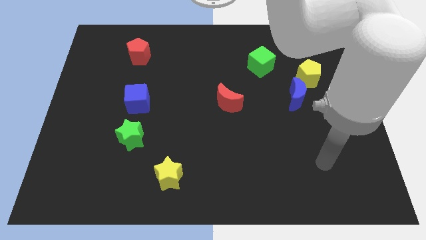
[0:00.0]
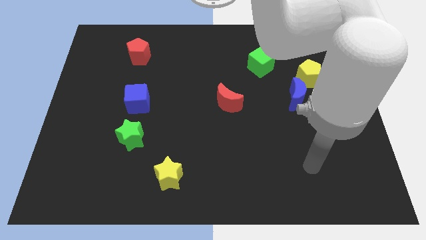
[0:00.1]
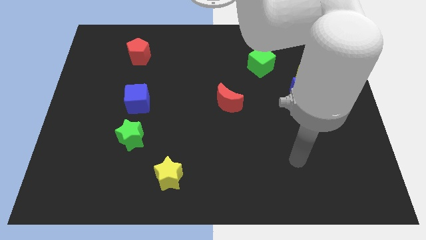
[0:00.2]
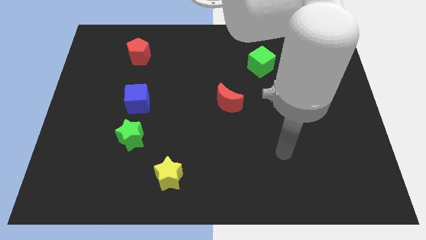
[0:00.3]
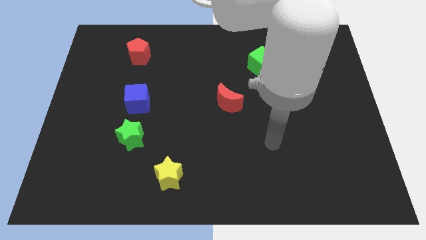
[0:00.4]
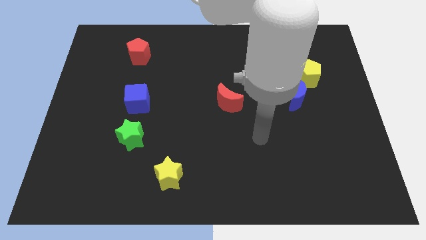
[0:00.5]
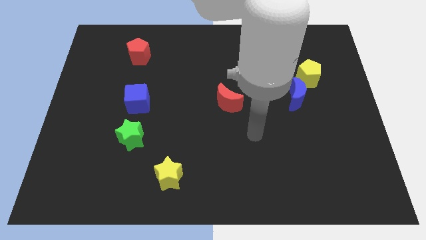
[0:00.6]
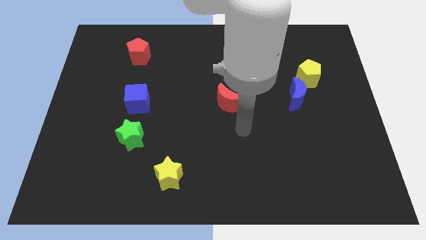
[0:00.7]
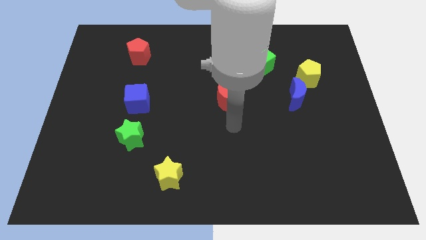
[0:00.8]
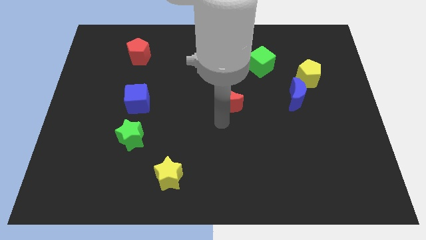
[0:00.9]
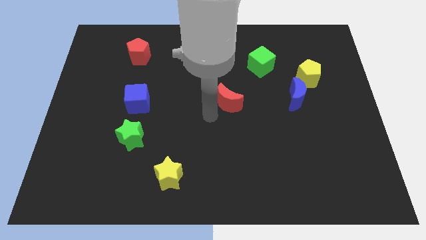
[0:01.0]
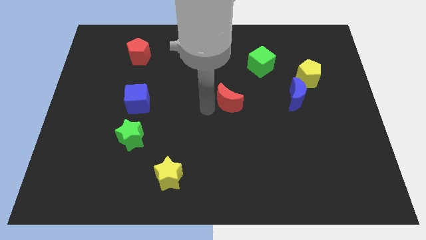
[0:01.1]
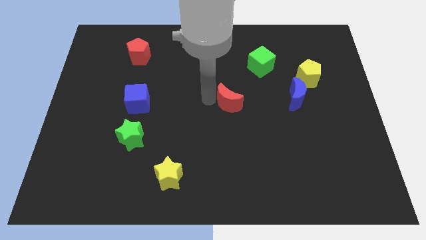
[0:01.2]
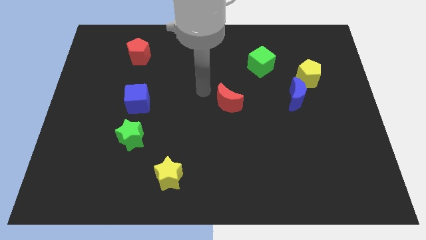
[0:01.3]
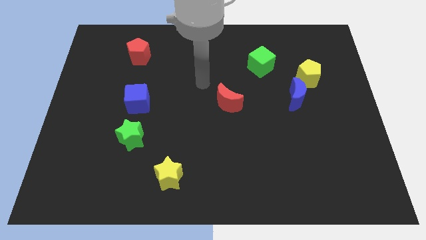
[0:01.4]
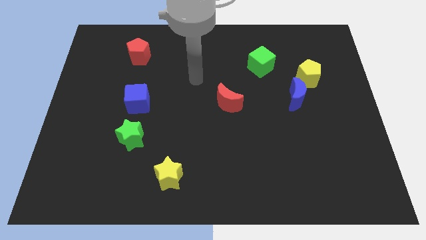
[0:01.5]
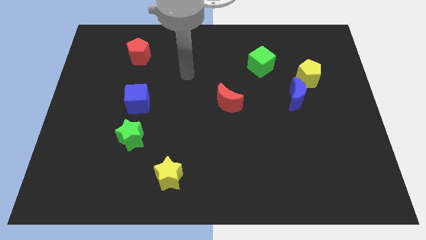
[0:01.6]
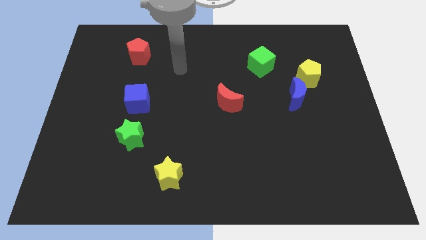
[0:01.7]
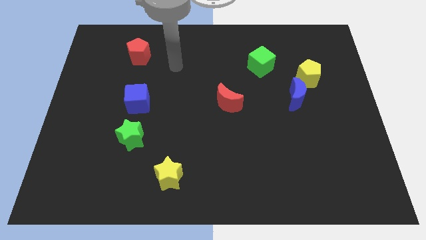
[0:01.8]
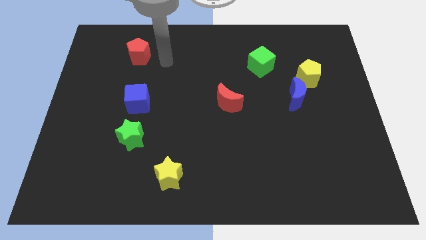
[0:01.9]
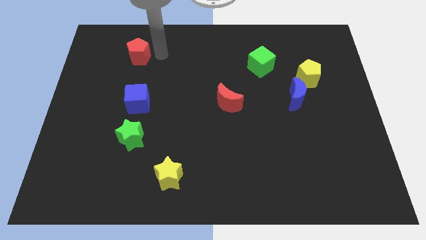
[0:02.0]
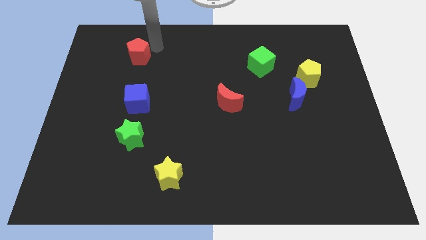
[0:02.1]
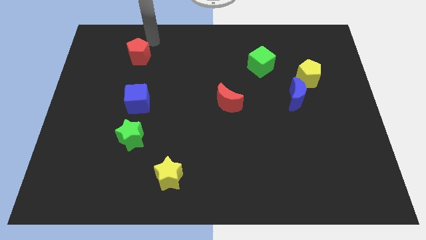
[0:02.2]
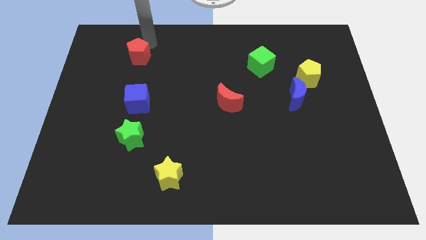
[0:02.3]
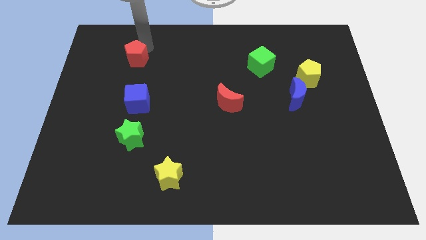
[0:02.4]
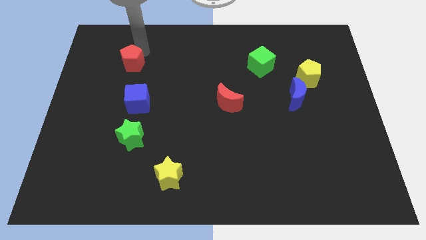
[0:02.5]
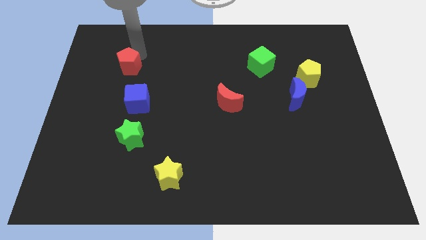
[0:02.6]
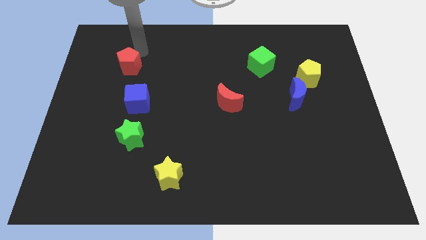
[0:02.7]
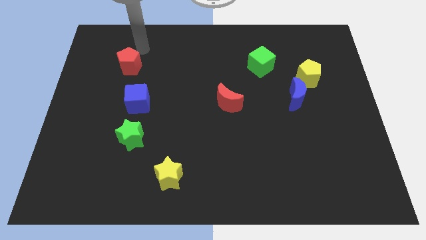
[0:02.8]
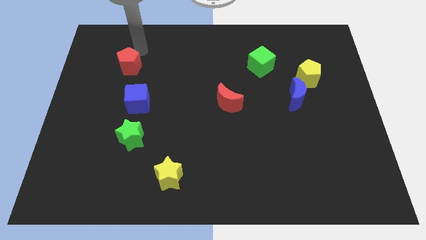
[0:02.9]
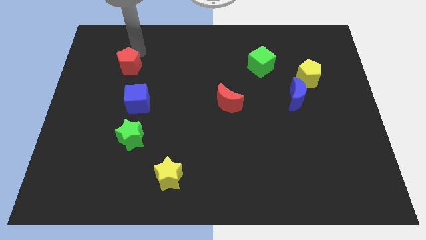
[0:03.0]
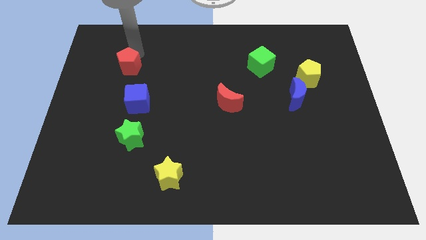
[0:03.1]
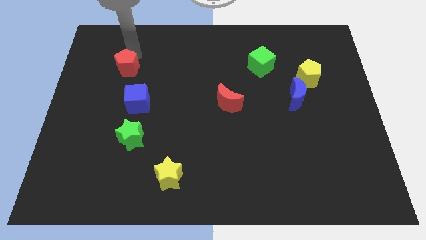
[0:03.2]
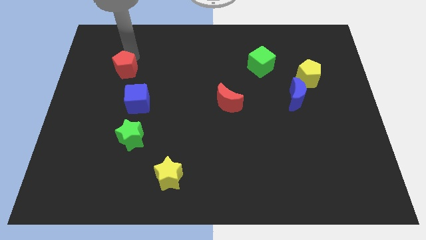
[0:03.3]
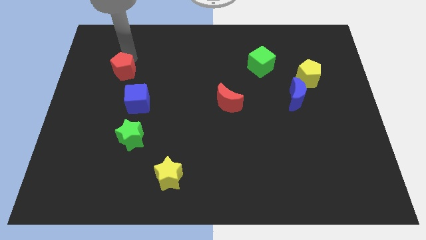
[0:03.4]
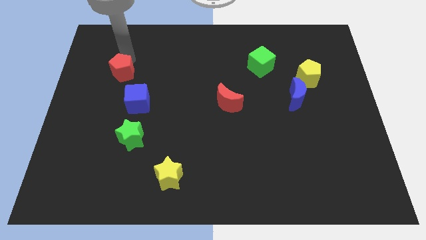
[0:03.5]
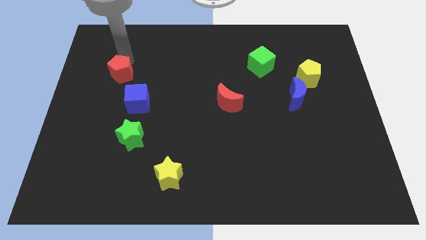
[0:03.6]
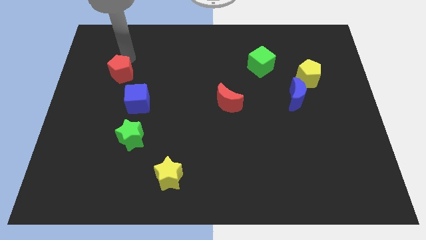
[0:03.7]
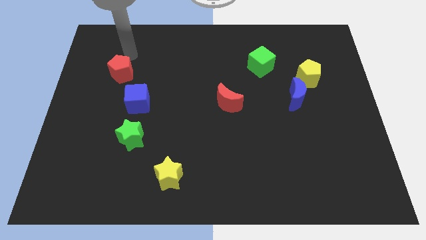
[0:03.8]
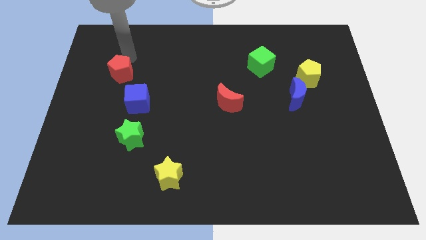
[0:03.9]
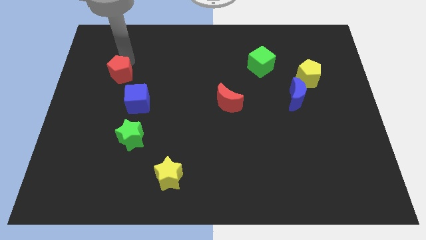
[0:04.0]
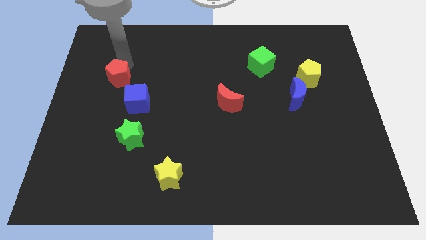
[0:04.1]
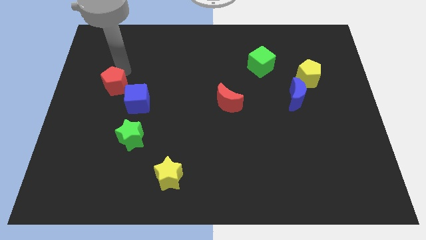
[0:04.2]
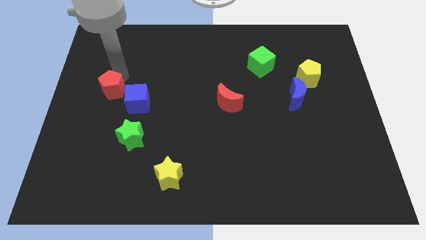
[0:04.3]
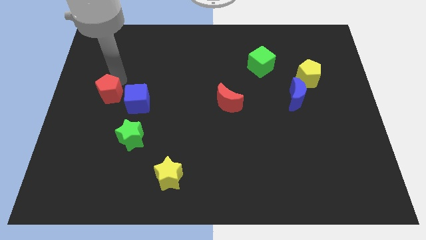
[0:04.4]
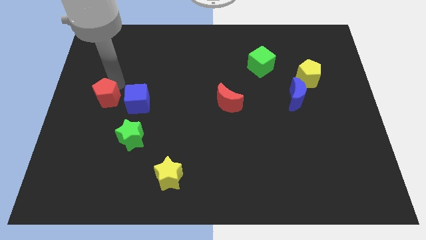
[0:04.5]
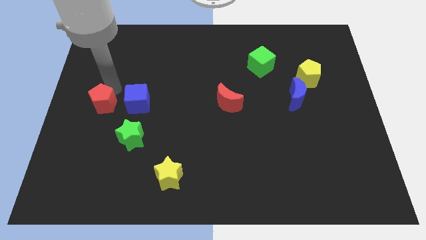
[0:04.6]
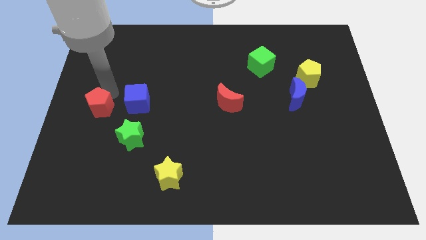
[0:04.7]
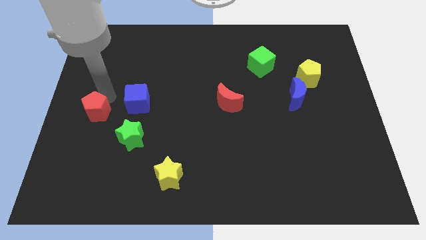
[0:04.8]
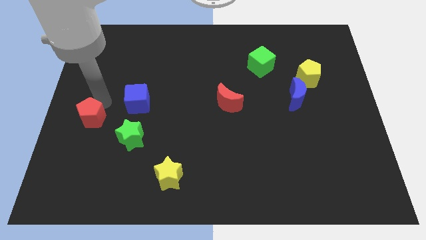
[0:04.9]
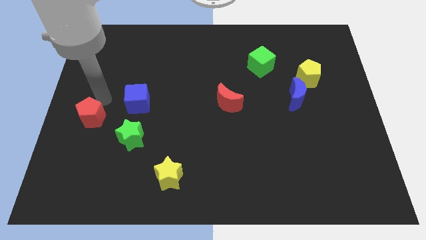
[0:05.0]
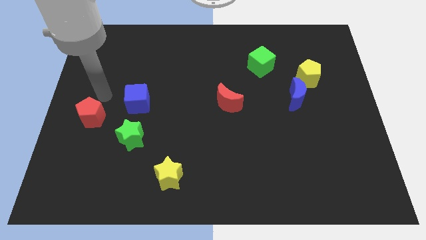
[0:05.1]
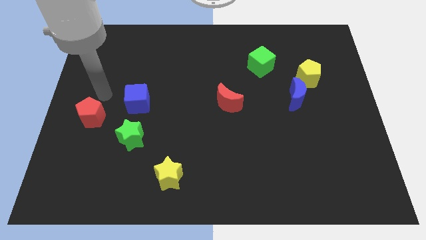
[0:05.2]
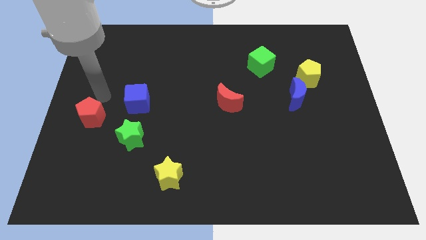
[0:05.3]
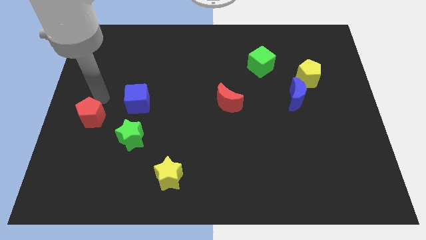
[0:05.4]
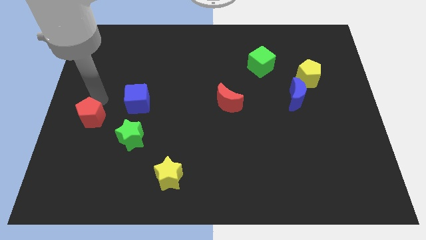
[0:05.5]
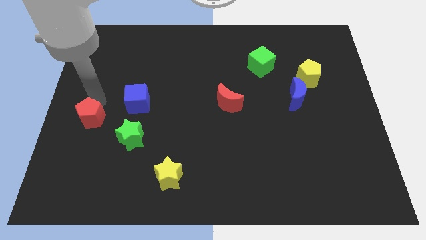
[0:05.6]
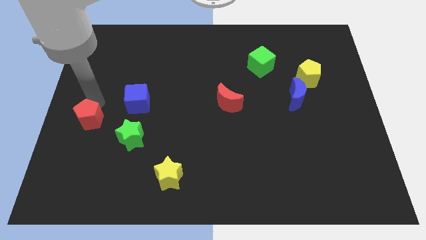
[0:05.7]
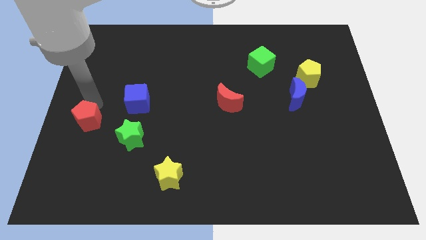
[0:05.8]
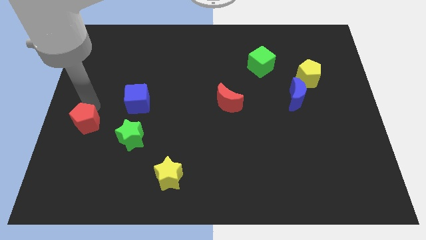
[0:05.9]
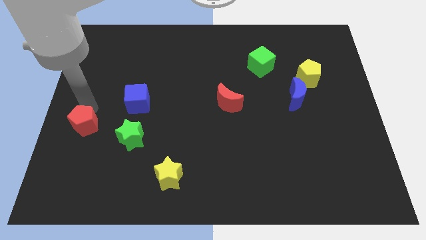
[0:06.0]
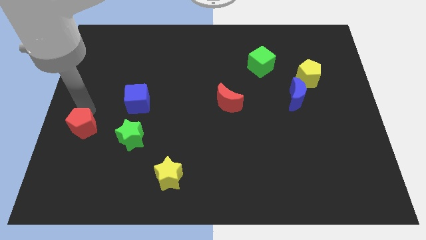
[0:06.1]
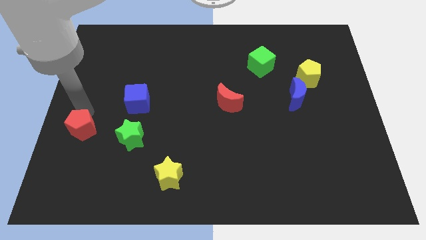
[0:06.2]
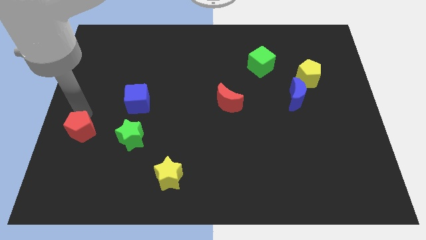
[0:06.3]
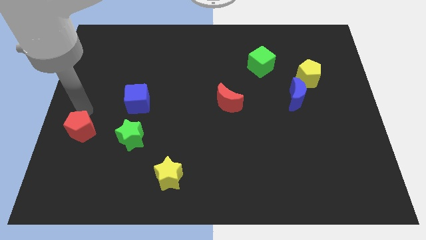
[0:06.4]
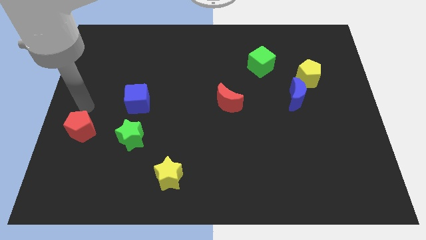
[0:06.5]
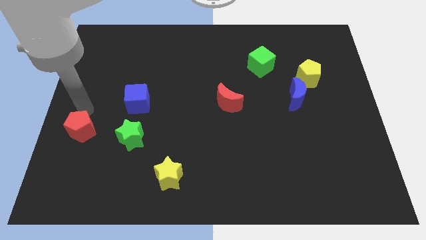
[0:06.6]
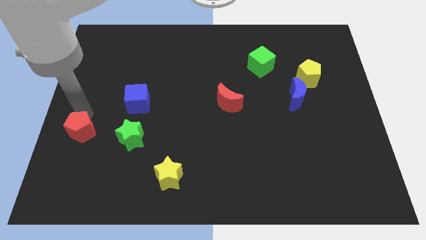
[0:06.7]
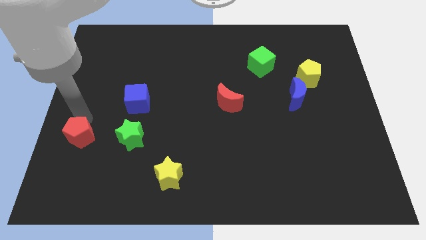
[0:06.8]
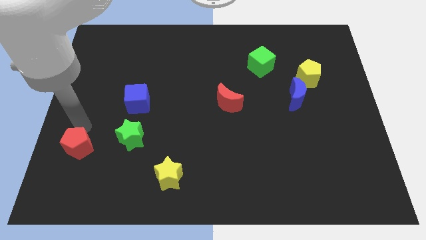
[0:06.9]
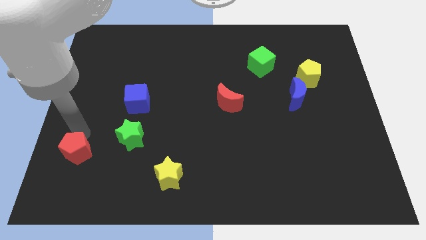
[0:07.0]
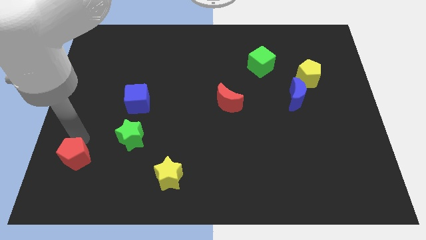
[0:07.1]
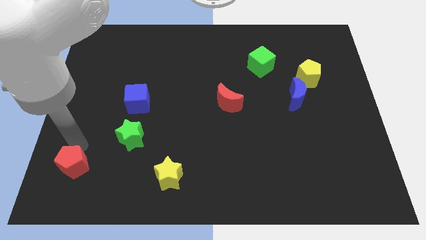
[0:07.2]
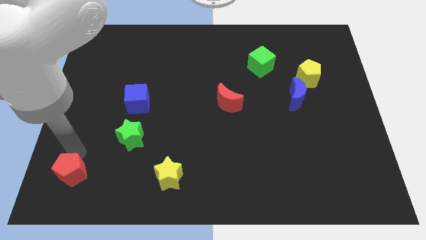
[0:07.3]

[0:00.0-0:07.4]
slide the red pentagon to the bottom left
